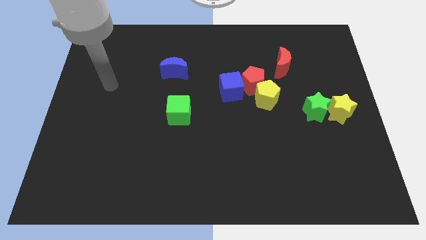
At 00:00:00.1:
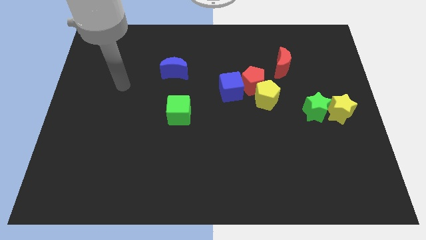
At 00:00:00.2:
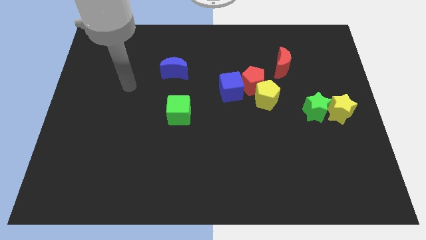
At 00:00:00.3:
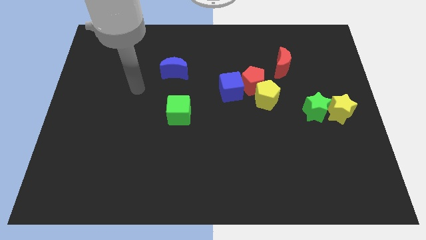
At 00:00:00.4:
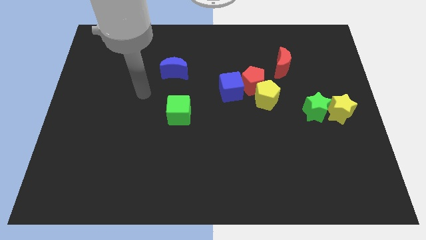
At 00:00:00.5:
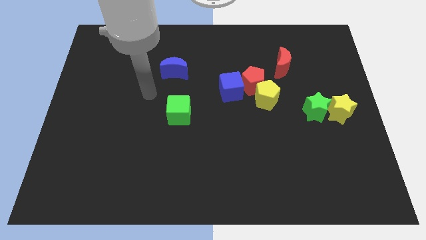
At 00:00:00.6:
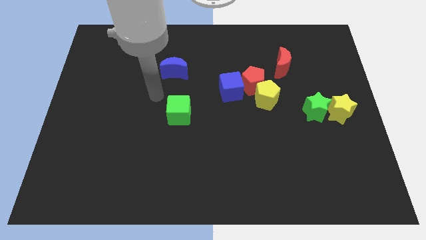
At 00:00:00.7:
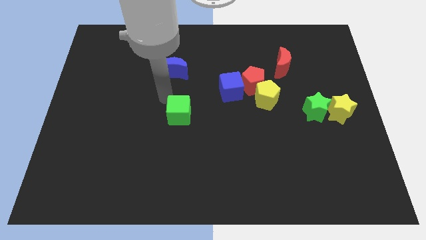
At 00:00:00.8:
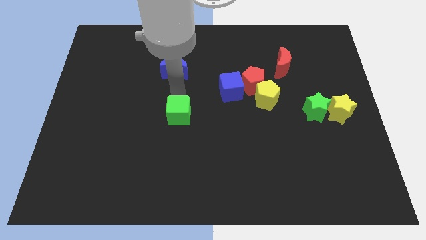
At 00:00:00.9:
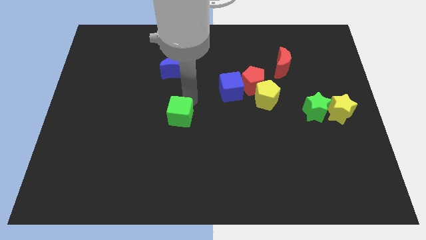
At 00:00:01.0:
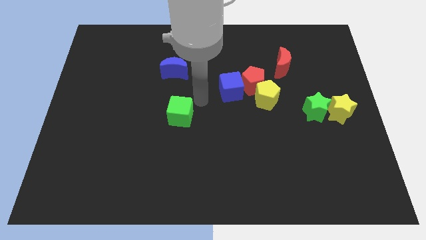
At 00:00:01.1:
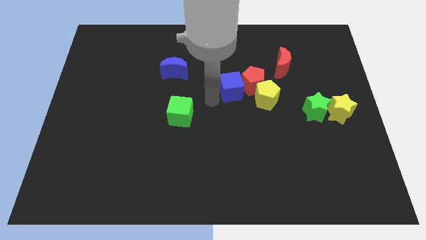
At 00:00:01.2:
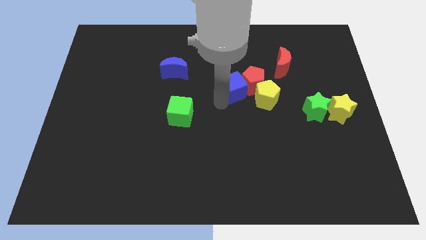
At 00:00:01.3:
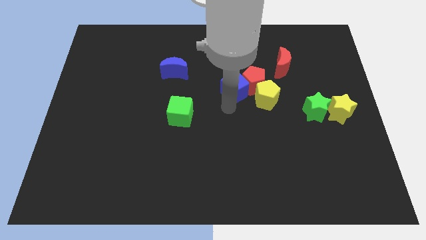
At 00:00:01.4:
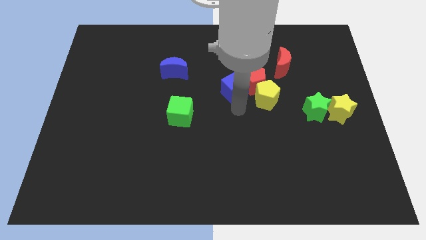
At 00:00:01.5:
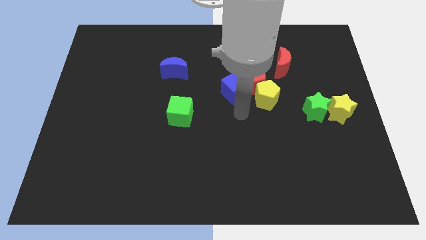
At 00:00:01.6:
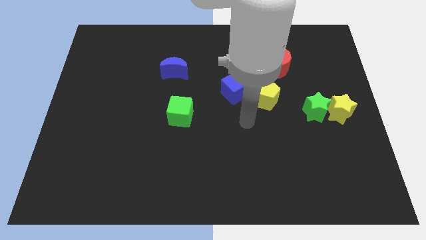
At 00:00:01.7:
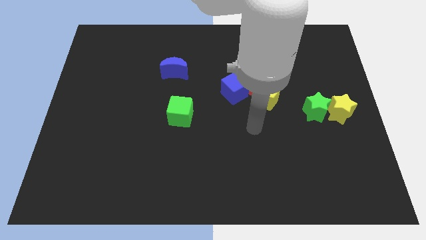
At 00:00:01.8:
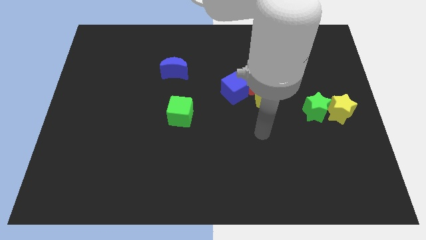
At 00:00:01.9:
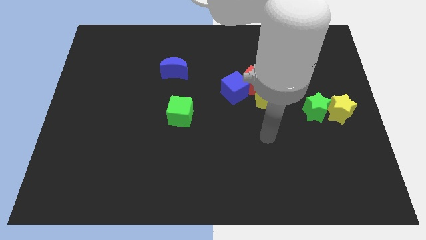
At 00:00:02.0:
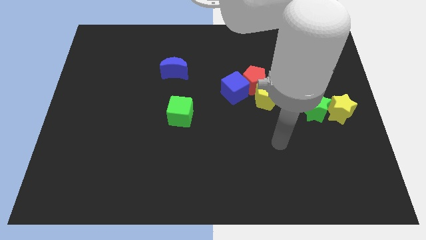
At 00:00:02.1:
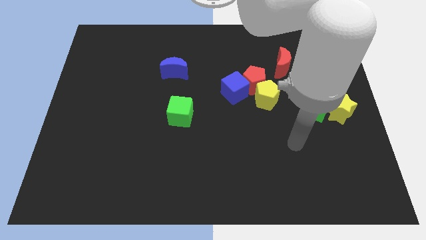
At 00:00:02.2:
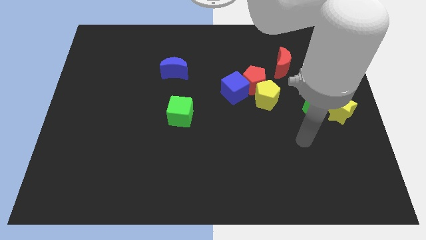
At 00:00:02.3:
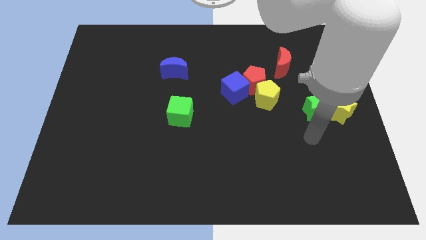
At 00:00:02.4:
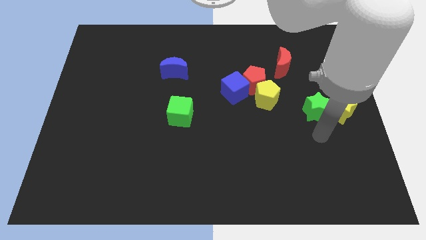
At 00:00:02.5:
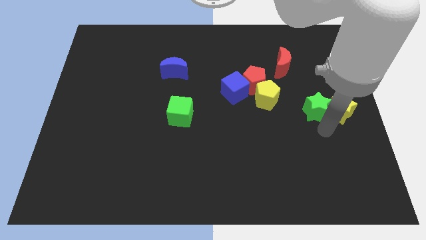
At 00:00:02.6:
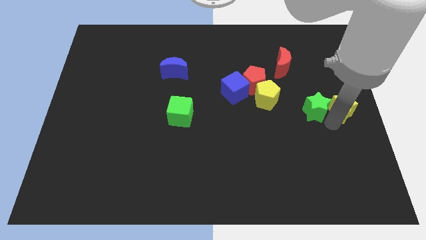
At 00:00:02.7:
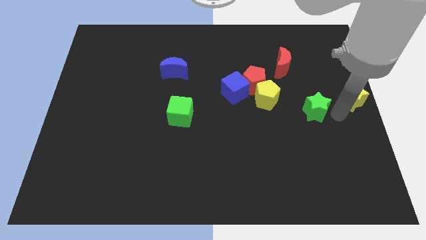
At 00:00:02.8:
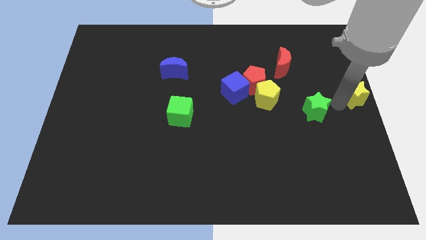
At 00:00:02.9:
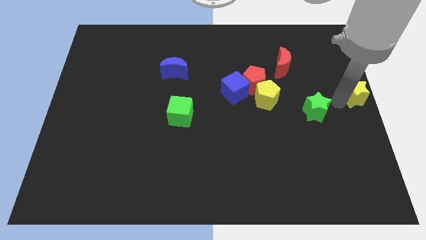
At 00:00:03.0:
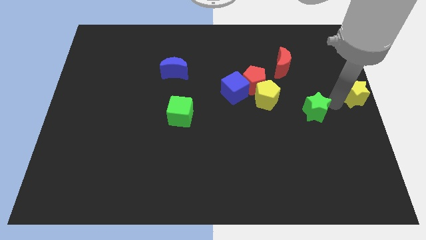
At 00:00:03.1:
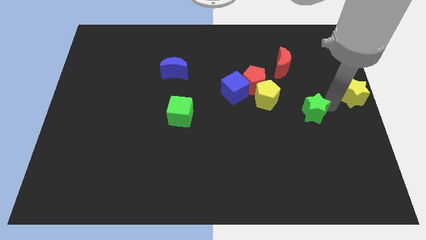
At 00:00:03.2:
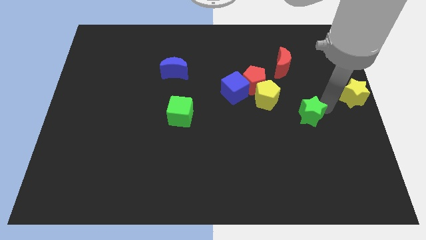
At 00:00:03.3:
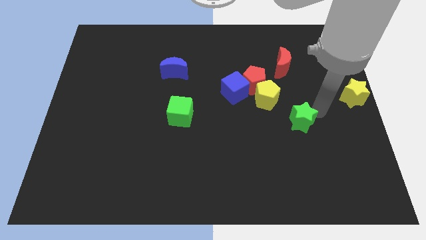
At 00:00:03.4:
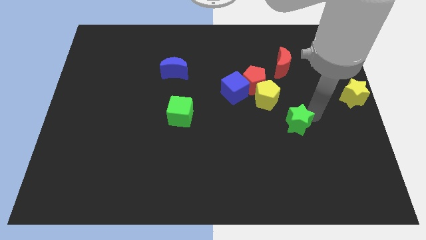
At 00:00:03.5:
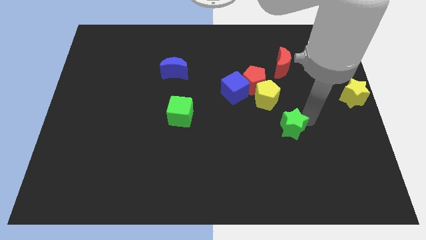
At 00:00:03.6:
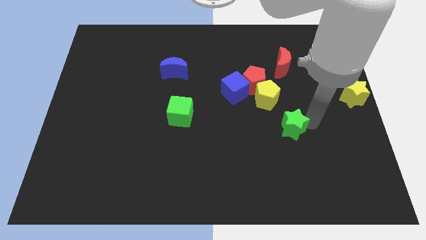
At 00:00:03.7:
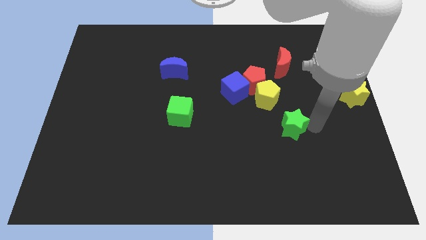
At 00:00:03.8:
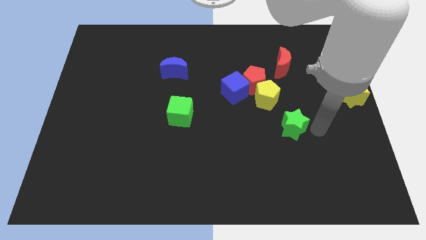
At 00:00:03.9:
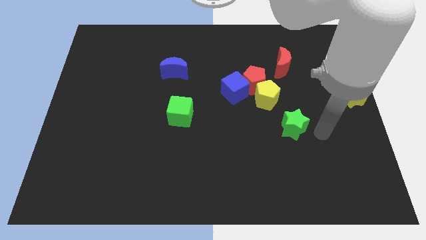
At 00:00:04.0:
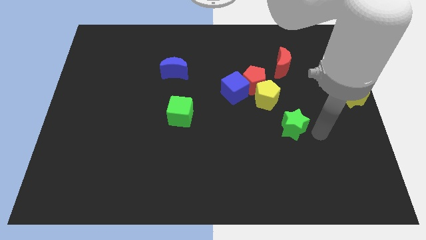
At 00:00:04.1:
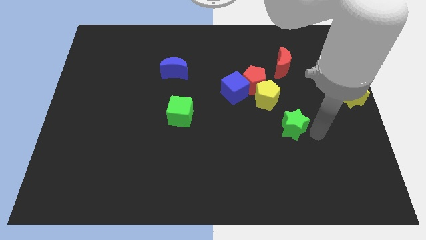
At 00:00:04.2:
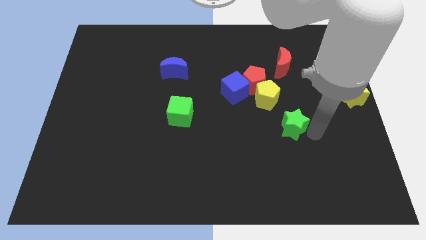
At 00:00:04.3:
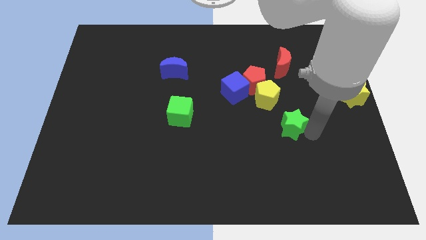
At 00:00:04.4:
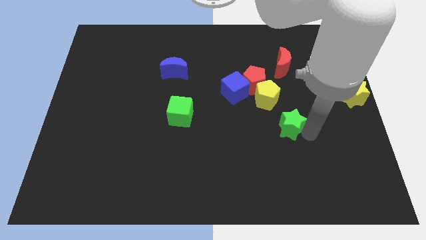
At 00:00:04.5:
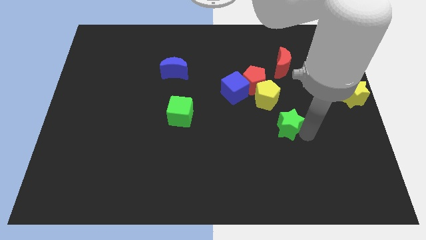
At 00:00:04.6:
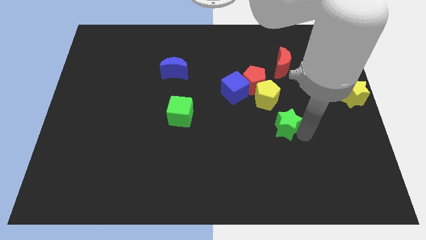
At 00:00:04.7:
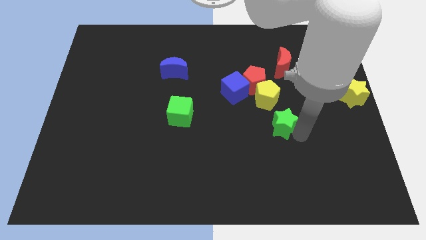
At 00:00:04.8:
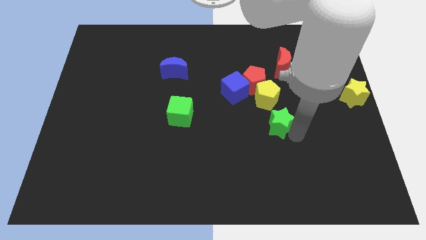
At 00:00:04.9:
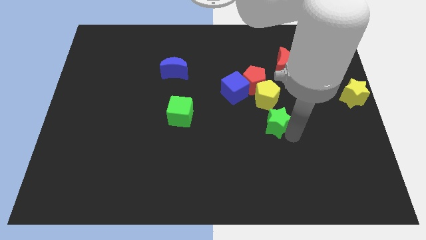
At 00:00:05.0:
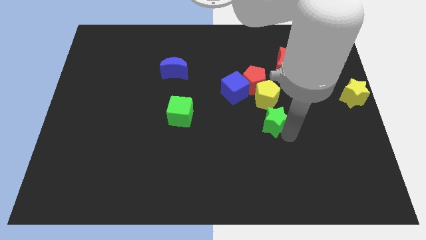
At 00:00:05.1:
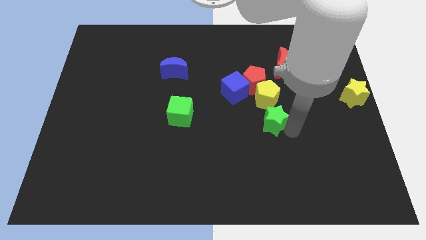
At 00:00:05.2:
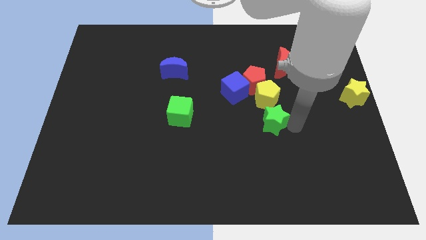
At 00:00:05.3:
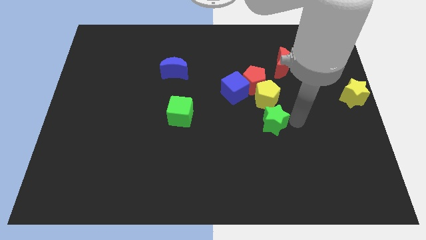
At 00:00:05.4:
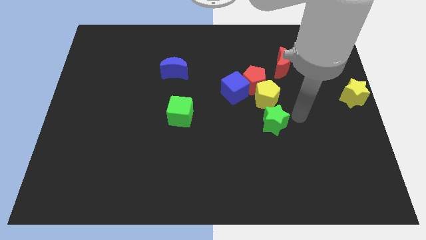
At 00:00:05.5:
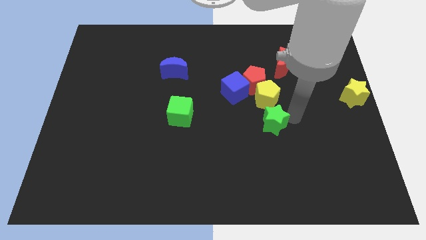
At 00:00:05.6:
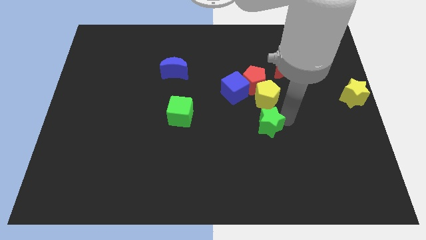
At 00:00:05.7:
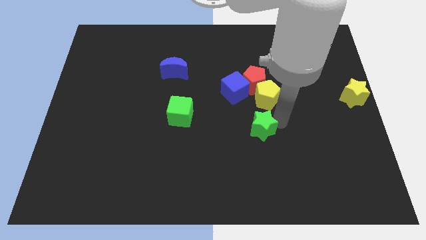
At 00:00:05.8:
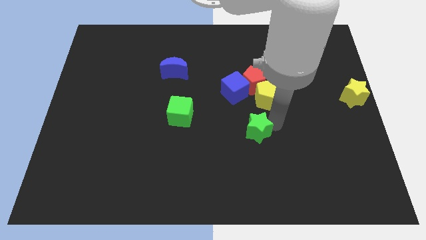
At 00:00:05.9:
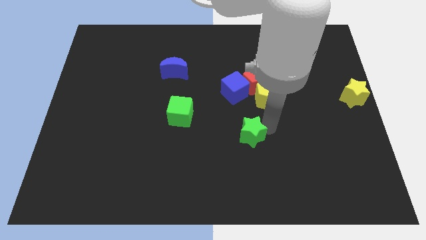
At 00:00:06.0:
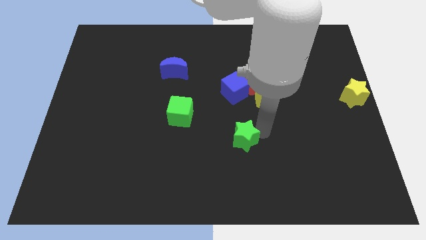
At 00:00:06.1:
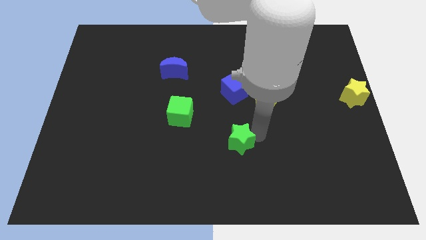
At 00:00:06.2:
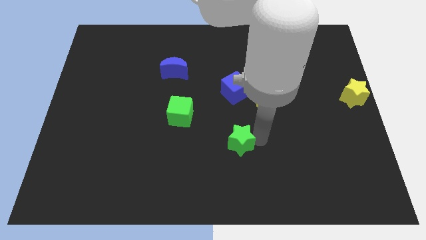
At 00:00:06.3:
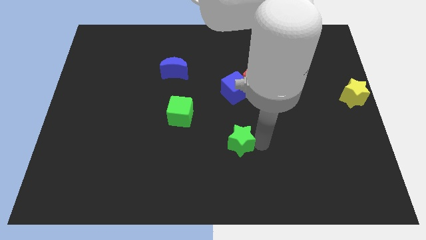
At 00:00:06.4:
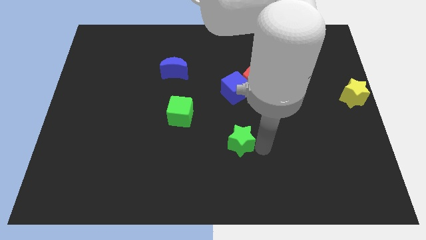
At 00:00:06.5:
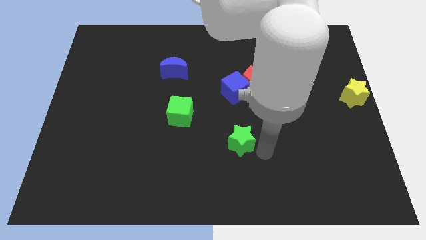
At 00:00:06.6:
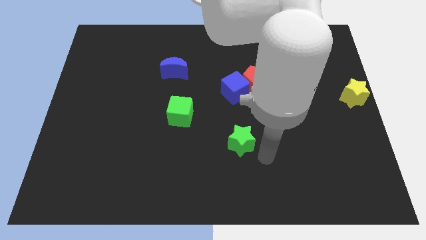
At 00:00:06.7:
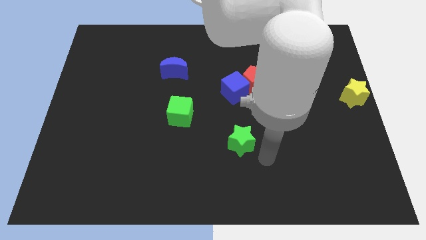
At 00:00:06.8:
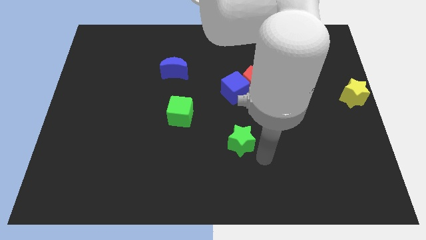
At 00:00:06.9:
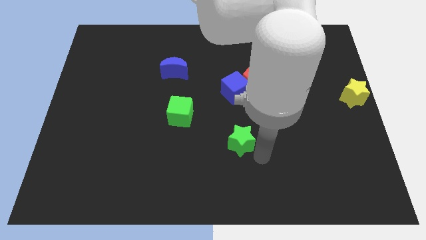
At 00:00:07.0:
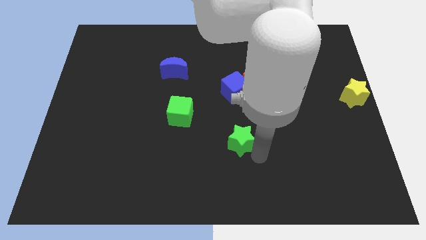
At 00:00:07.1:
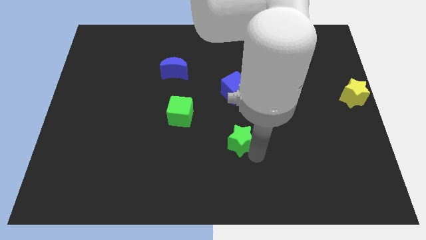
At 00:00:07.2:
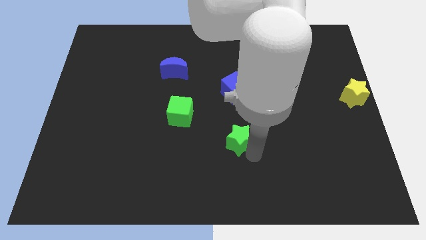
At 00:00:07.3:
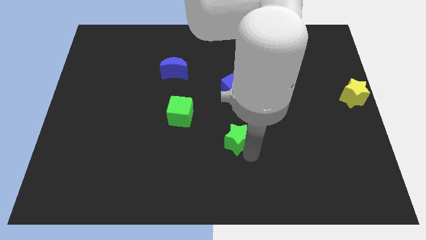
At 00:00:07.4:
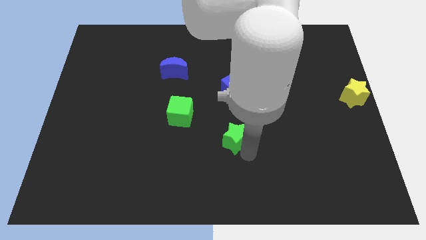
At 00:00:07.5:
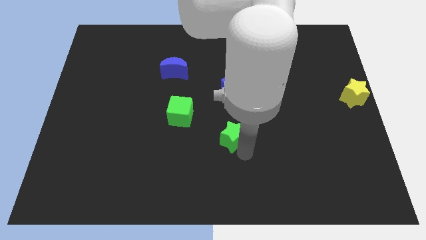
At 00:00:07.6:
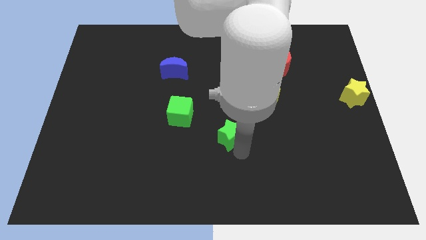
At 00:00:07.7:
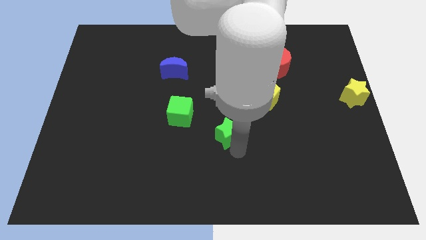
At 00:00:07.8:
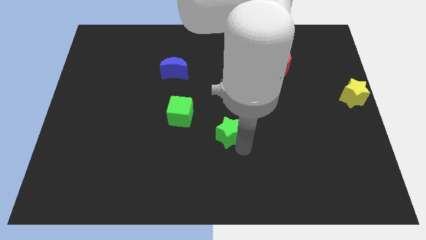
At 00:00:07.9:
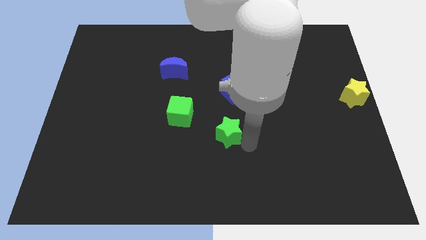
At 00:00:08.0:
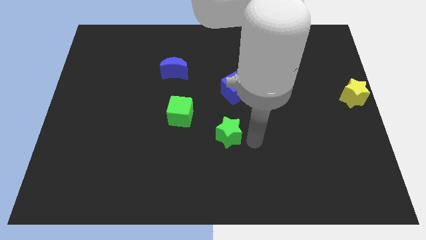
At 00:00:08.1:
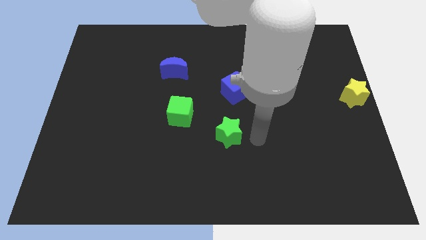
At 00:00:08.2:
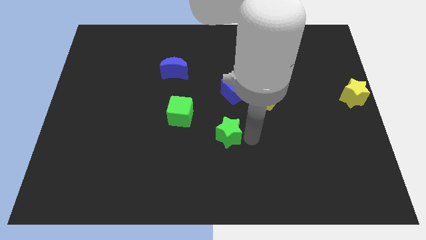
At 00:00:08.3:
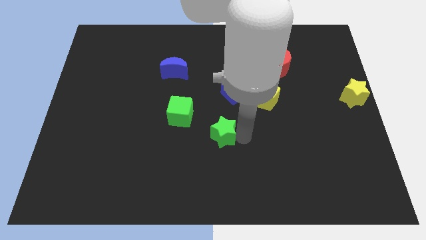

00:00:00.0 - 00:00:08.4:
move the green star diagonally down and to the right of the green cube
